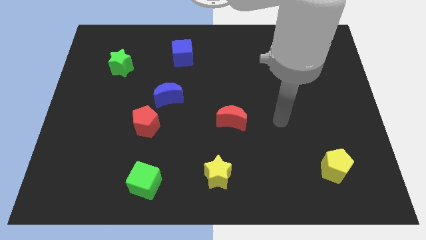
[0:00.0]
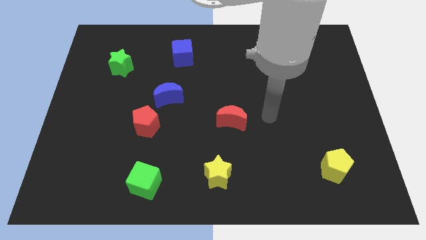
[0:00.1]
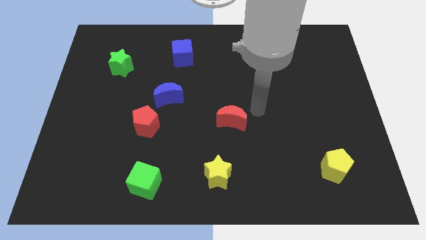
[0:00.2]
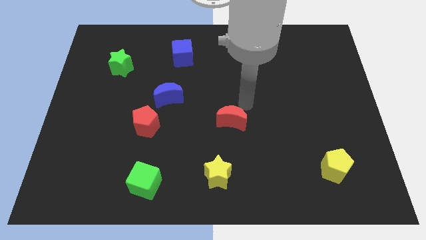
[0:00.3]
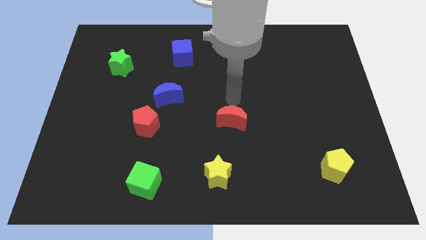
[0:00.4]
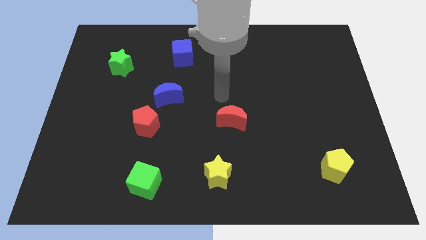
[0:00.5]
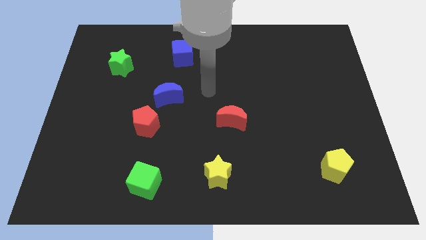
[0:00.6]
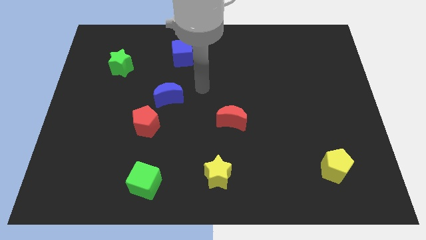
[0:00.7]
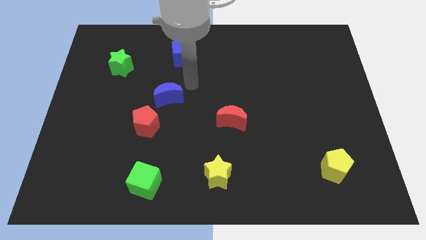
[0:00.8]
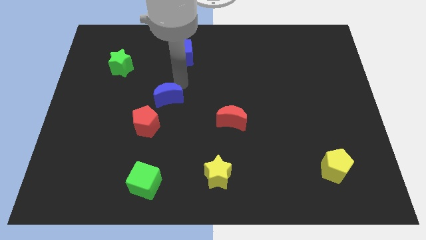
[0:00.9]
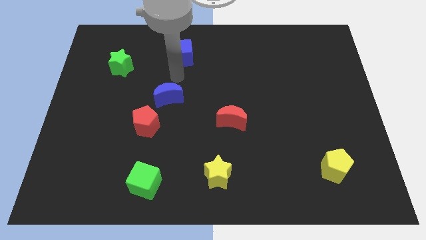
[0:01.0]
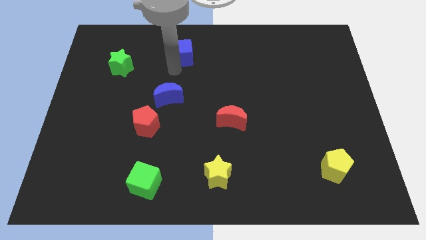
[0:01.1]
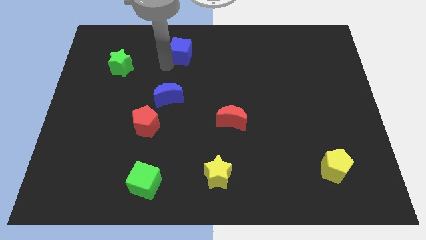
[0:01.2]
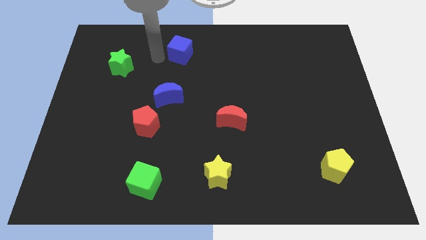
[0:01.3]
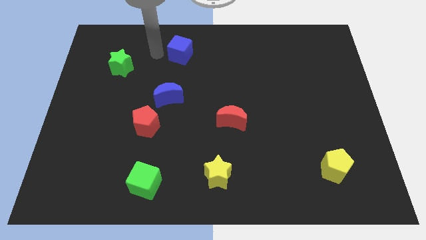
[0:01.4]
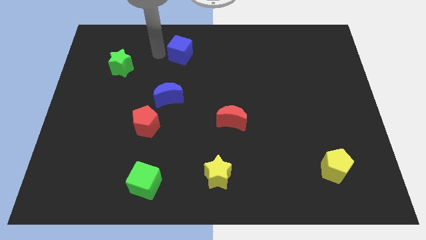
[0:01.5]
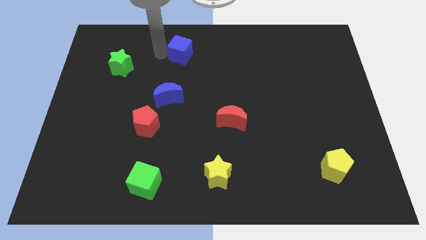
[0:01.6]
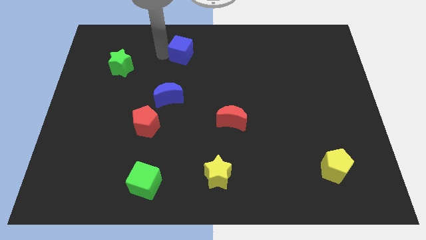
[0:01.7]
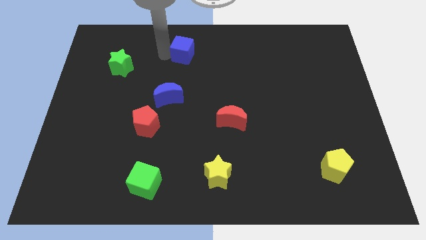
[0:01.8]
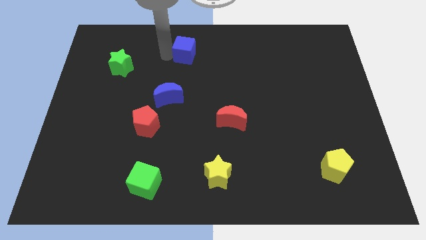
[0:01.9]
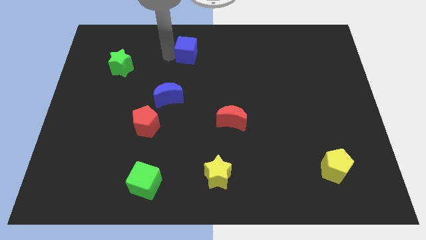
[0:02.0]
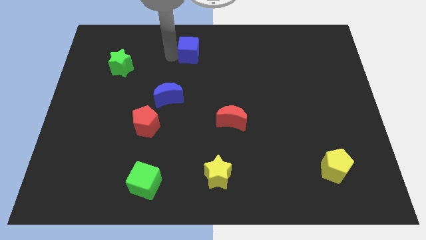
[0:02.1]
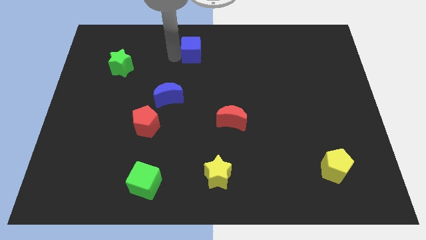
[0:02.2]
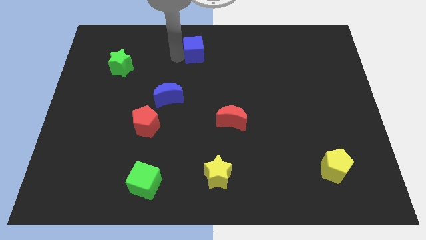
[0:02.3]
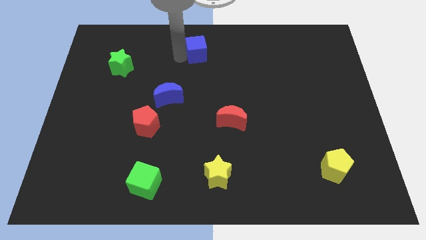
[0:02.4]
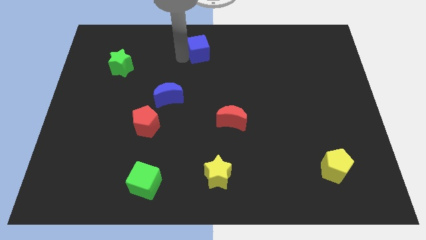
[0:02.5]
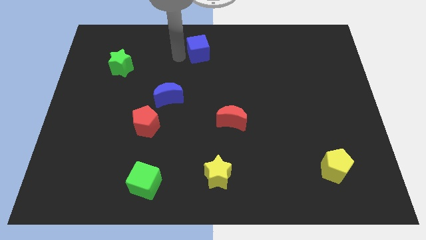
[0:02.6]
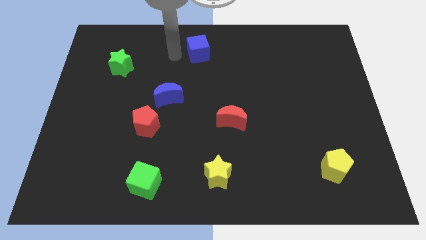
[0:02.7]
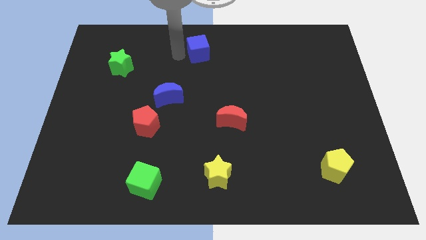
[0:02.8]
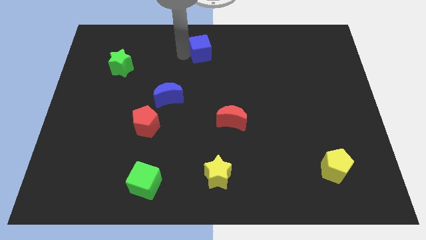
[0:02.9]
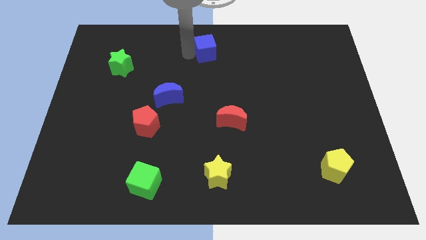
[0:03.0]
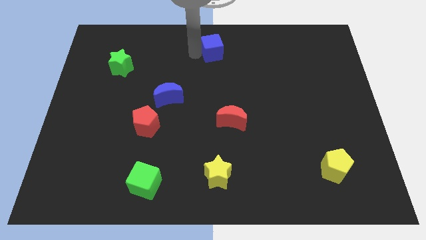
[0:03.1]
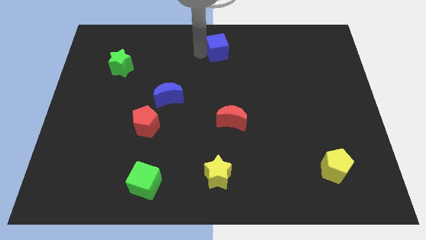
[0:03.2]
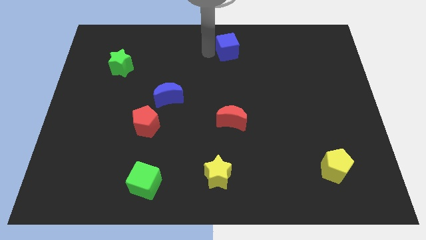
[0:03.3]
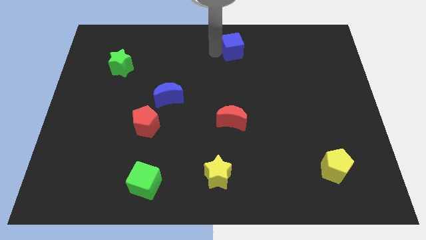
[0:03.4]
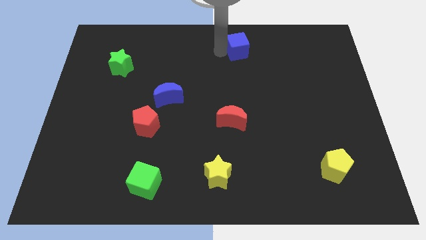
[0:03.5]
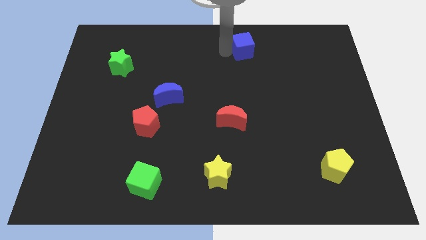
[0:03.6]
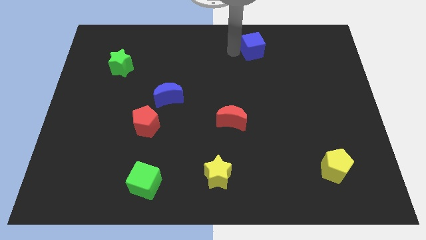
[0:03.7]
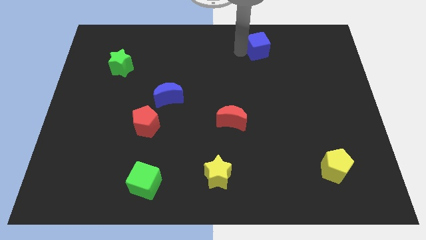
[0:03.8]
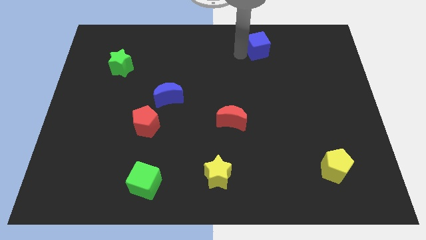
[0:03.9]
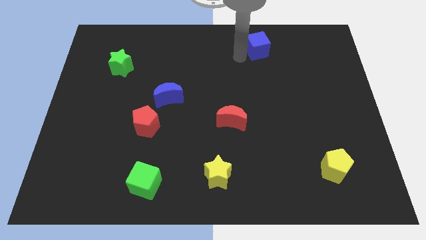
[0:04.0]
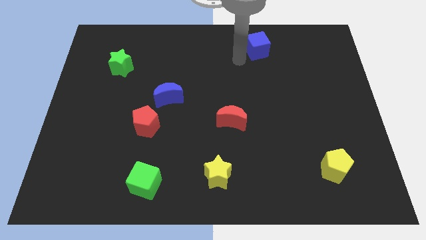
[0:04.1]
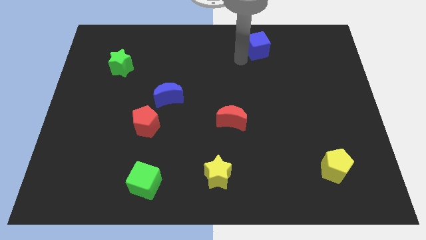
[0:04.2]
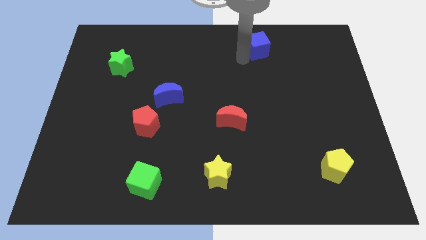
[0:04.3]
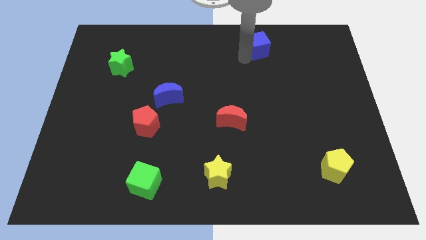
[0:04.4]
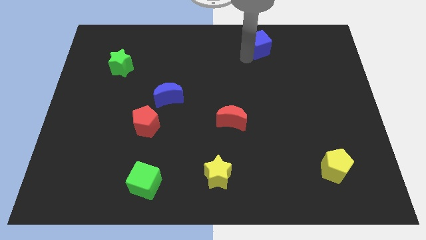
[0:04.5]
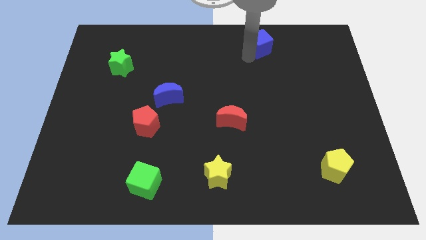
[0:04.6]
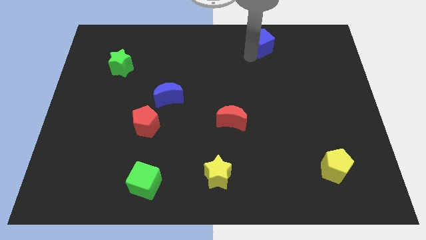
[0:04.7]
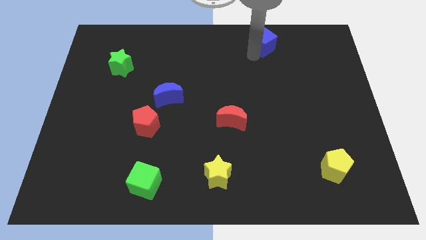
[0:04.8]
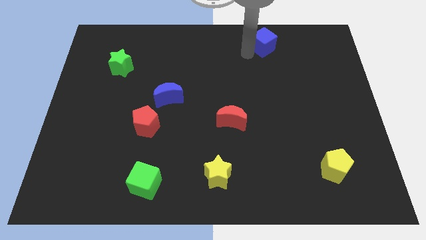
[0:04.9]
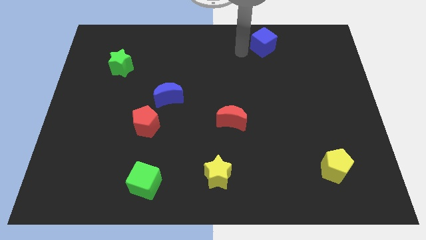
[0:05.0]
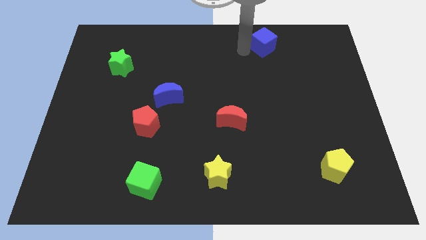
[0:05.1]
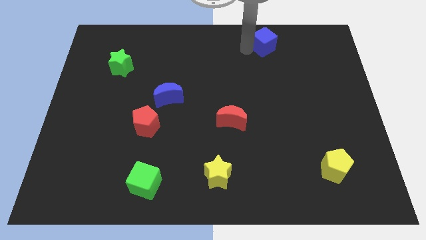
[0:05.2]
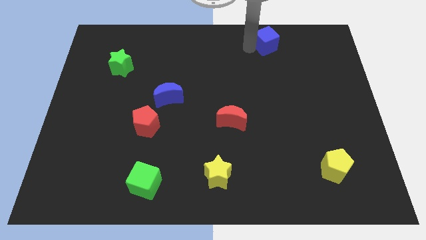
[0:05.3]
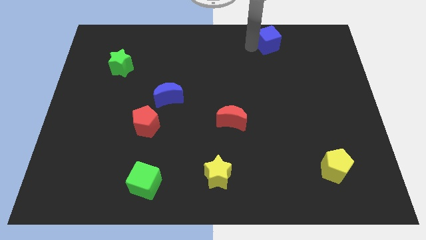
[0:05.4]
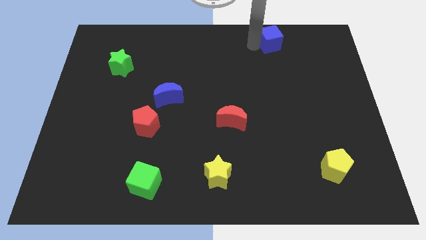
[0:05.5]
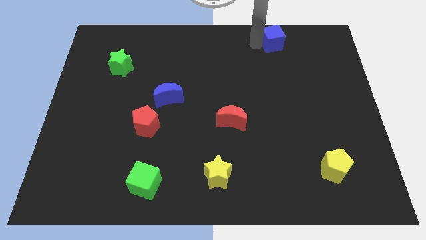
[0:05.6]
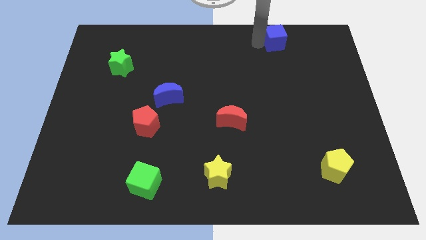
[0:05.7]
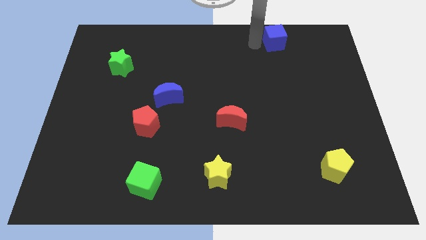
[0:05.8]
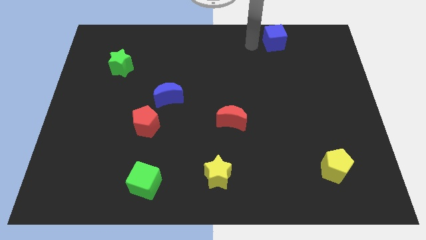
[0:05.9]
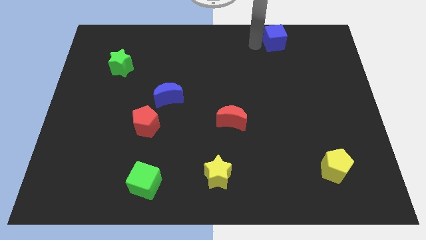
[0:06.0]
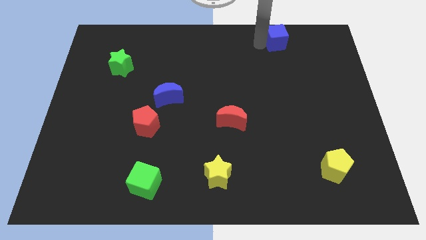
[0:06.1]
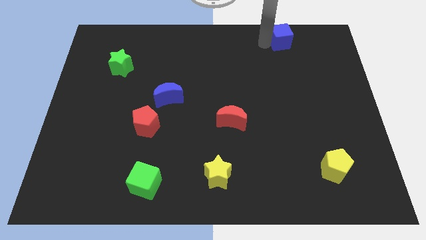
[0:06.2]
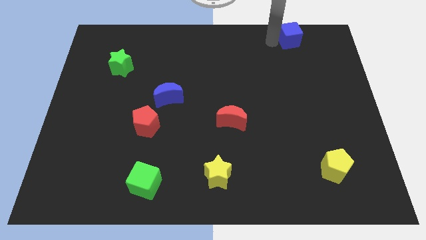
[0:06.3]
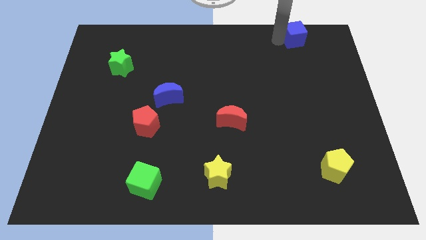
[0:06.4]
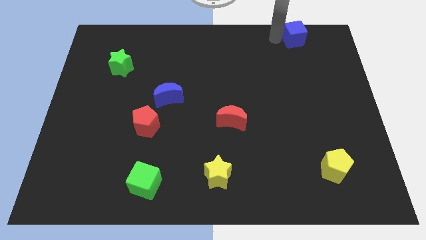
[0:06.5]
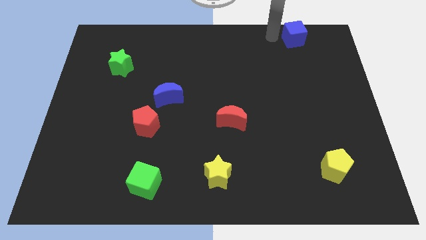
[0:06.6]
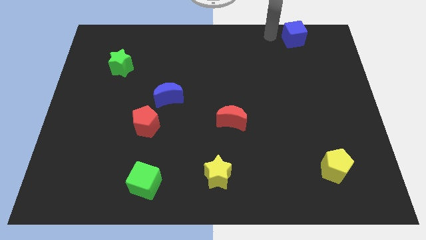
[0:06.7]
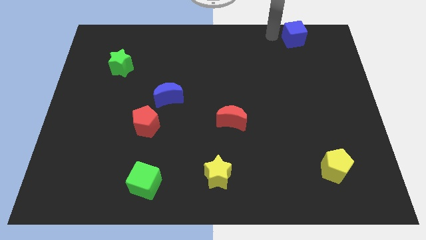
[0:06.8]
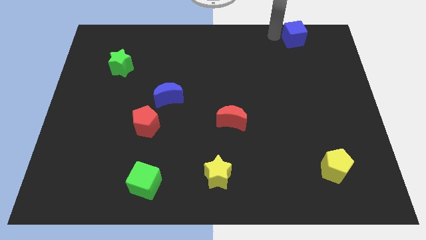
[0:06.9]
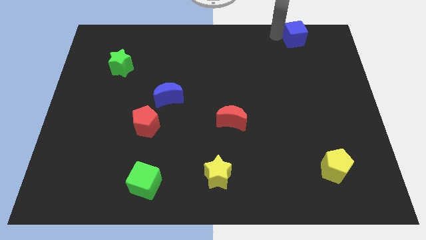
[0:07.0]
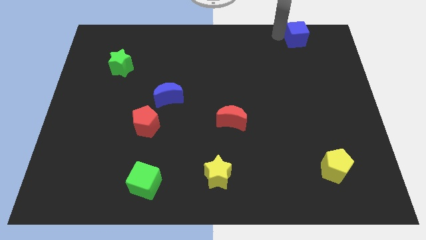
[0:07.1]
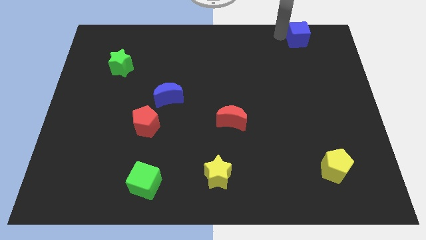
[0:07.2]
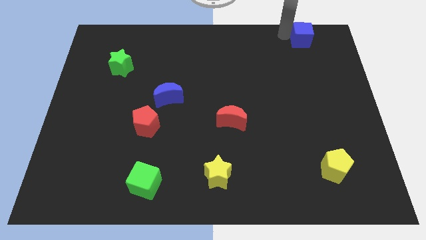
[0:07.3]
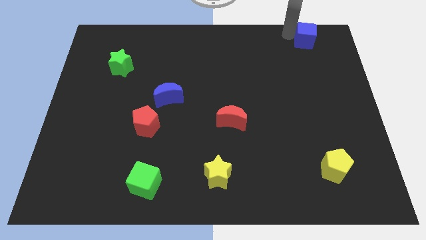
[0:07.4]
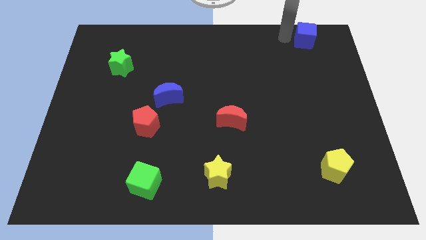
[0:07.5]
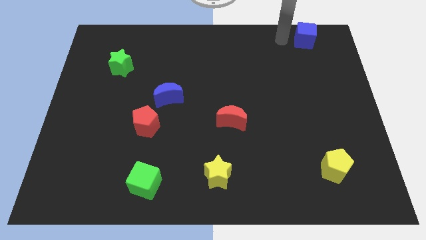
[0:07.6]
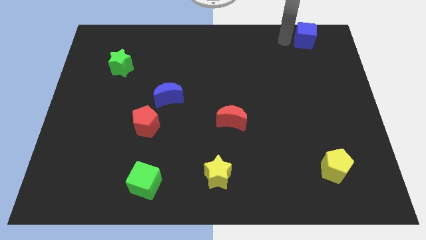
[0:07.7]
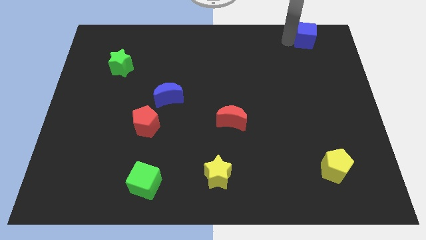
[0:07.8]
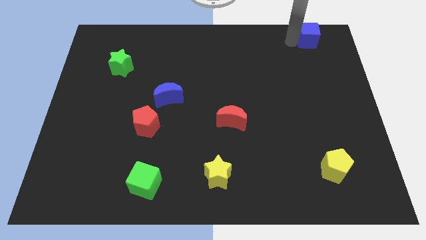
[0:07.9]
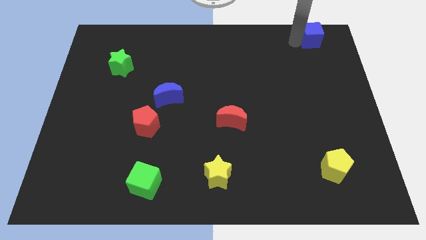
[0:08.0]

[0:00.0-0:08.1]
put the blue cube to the top right
